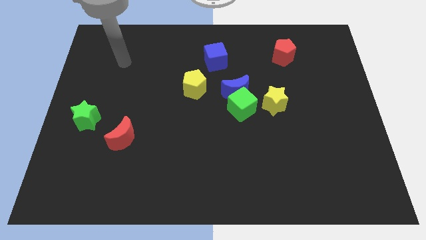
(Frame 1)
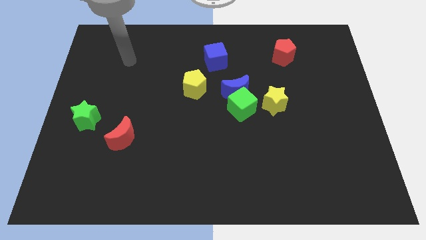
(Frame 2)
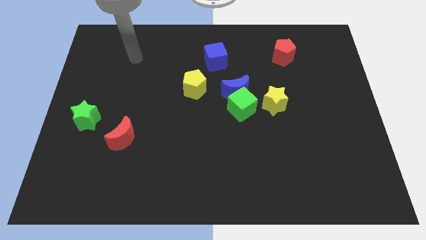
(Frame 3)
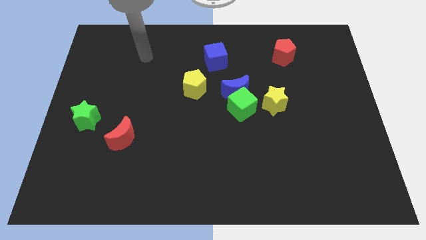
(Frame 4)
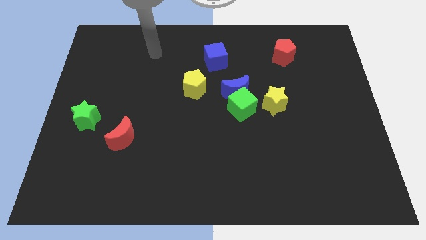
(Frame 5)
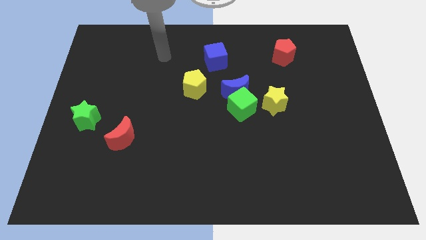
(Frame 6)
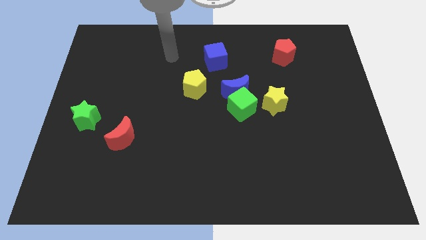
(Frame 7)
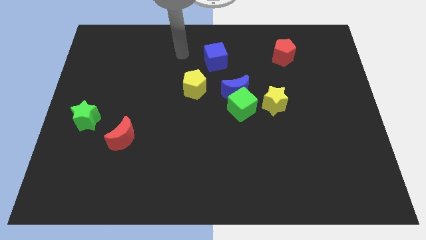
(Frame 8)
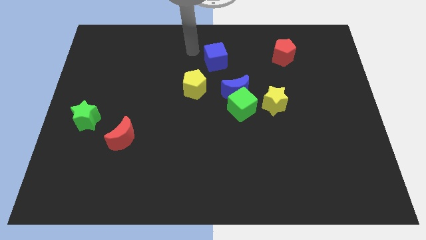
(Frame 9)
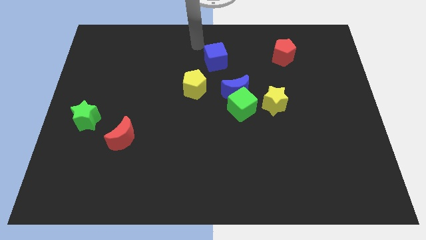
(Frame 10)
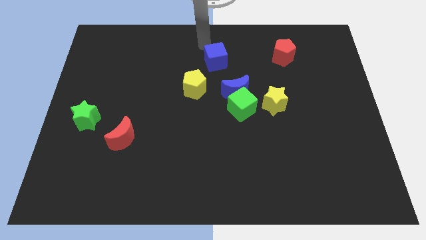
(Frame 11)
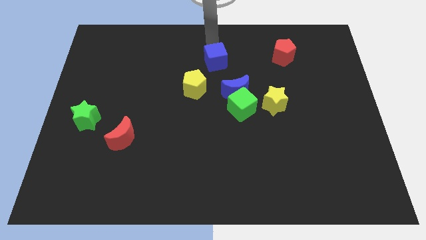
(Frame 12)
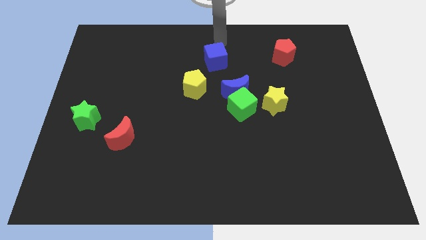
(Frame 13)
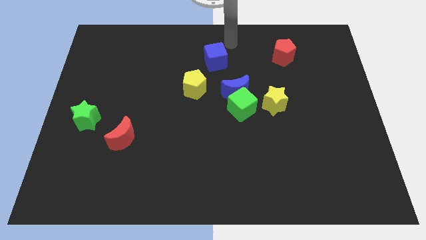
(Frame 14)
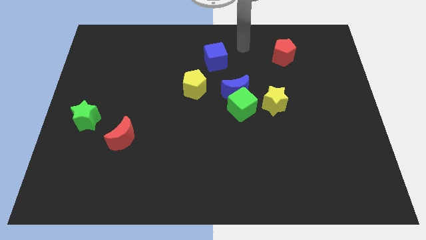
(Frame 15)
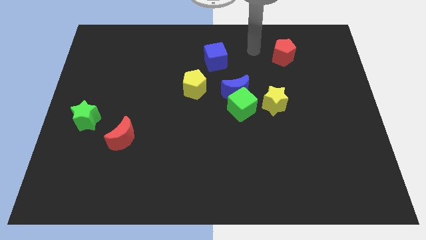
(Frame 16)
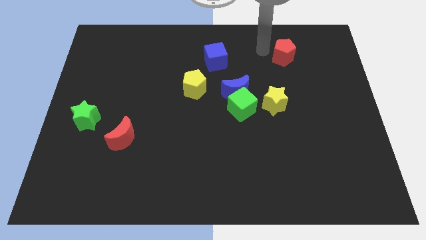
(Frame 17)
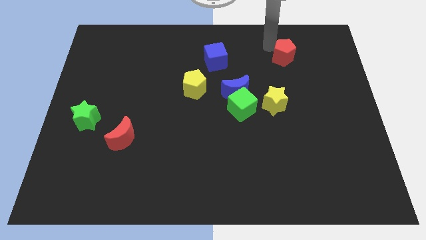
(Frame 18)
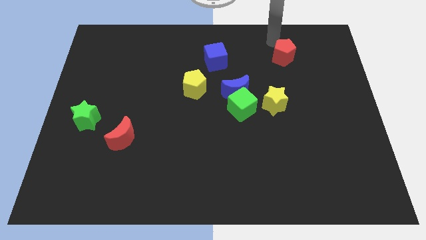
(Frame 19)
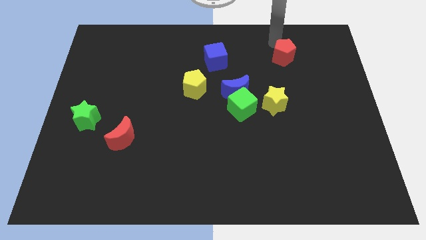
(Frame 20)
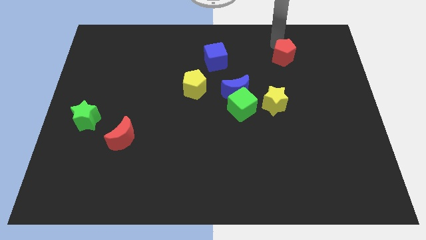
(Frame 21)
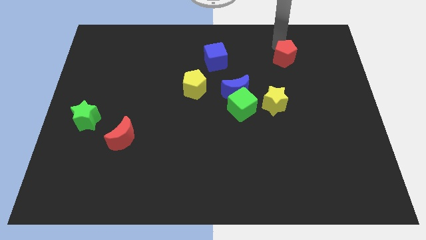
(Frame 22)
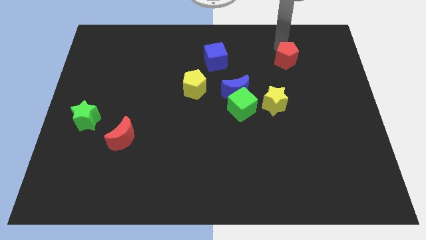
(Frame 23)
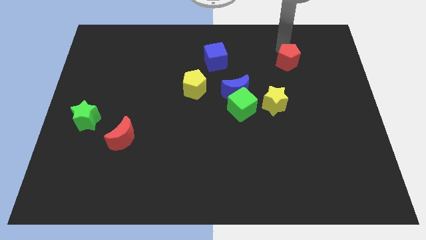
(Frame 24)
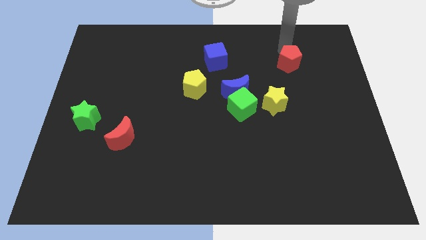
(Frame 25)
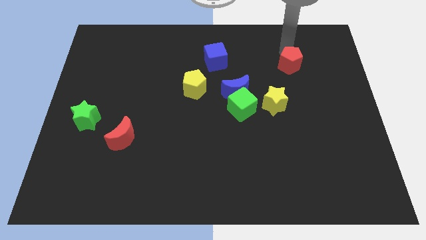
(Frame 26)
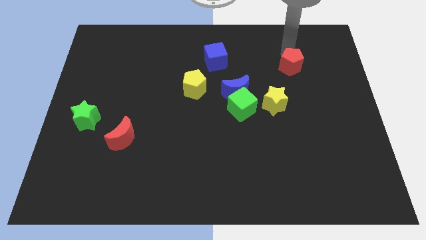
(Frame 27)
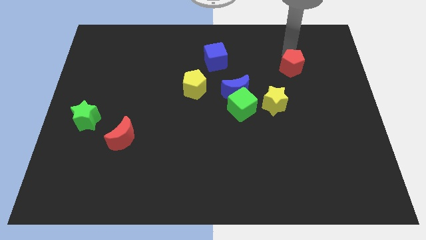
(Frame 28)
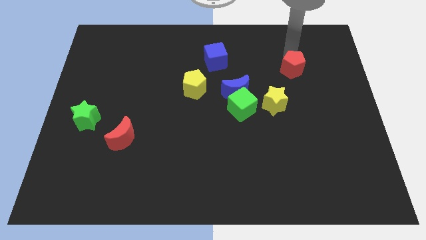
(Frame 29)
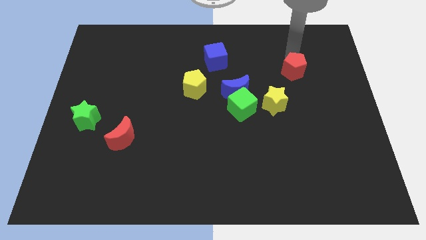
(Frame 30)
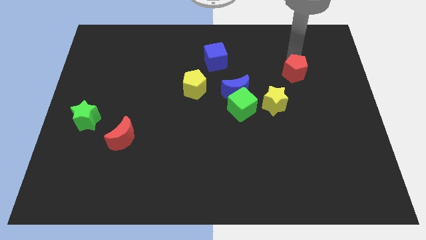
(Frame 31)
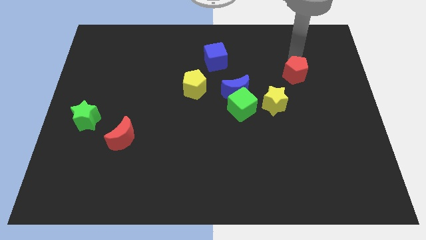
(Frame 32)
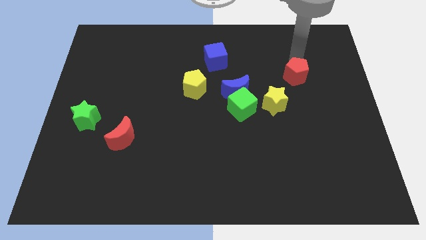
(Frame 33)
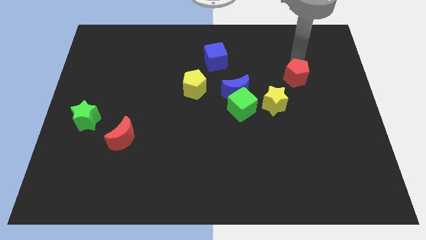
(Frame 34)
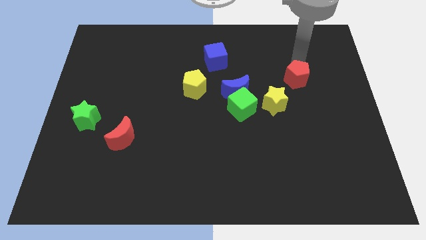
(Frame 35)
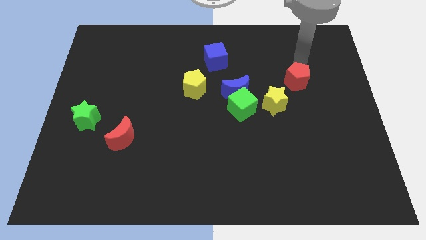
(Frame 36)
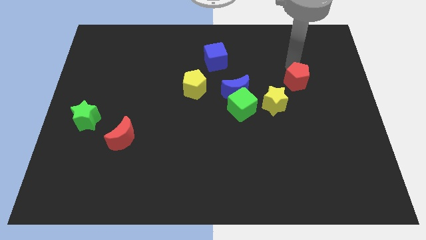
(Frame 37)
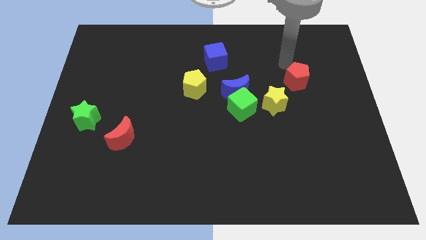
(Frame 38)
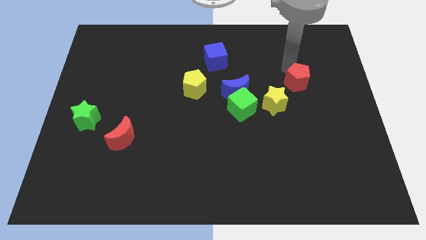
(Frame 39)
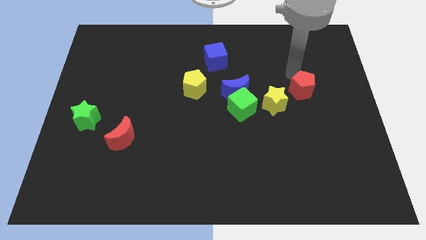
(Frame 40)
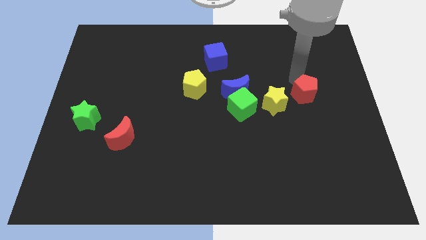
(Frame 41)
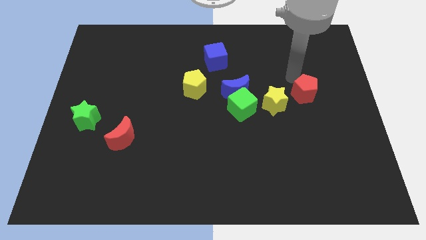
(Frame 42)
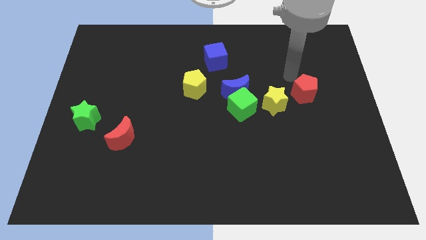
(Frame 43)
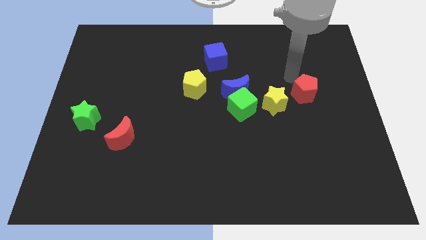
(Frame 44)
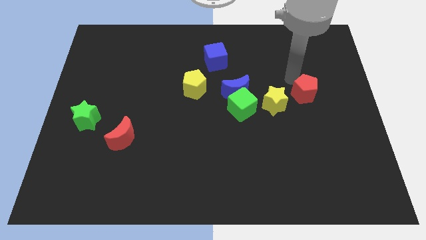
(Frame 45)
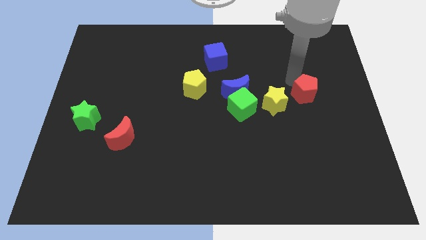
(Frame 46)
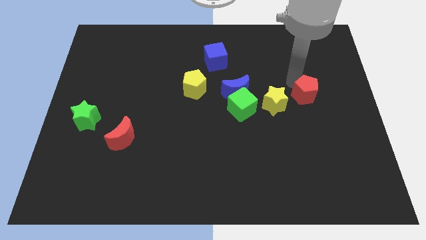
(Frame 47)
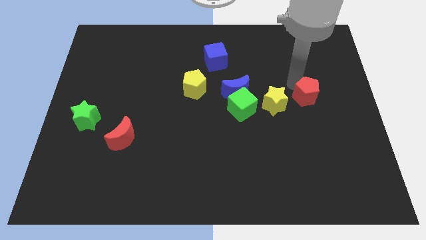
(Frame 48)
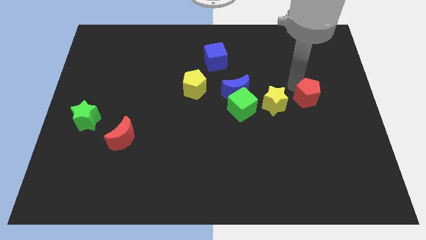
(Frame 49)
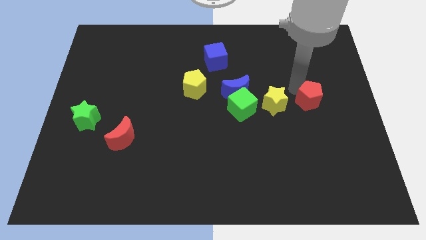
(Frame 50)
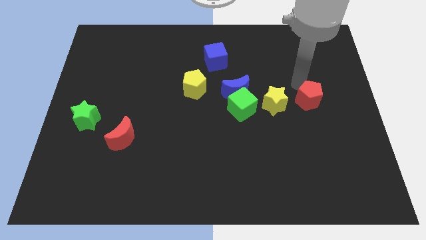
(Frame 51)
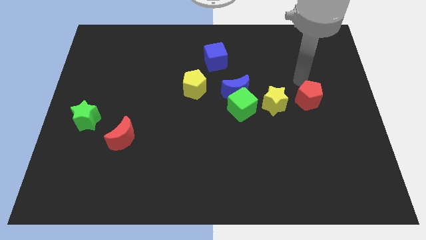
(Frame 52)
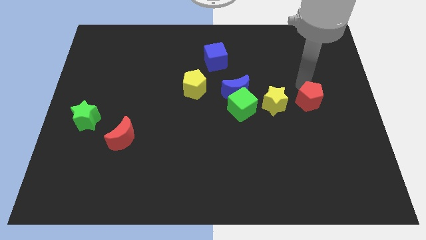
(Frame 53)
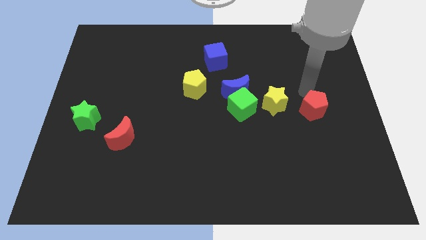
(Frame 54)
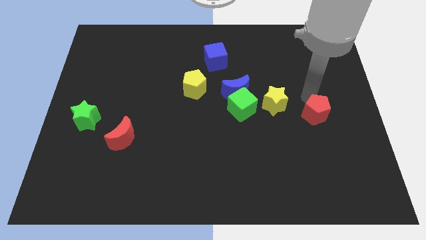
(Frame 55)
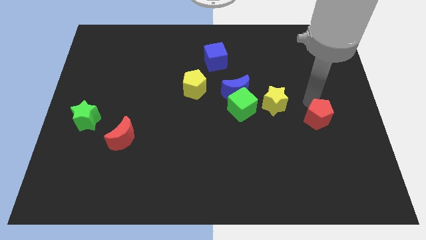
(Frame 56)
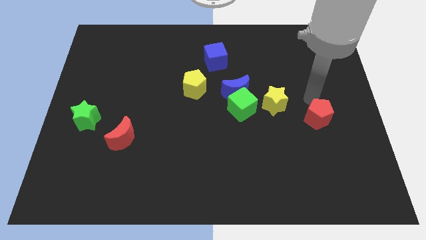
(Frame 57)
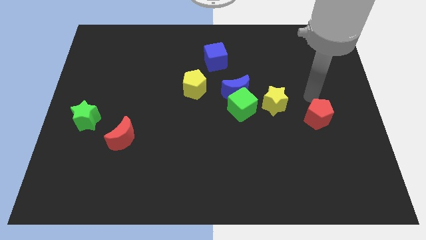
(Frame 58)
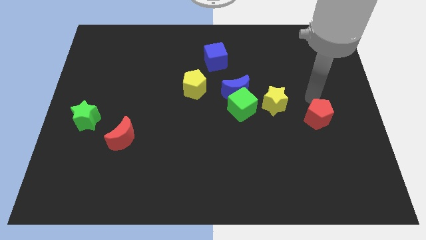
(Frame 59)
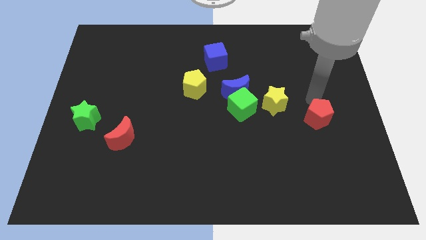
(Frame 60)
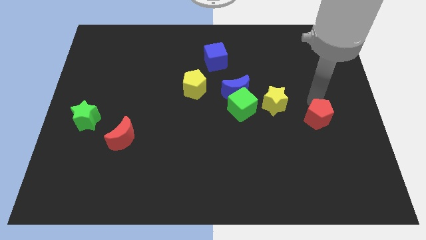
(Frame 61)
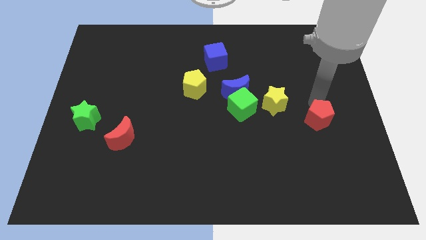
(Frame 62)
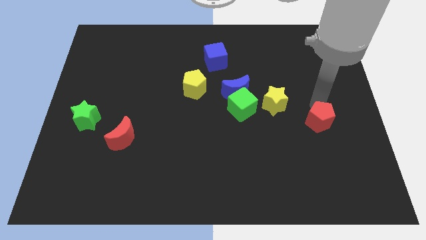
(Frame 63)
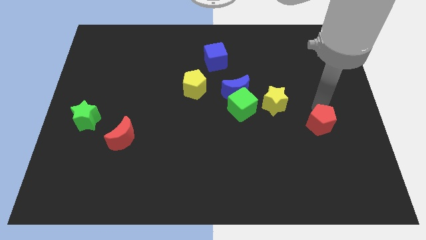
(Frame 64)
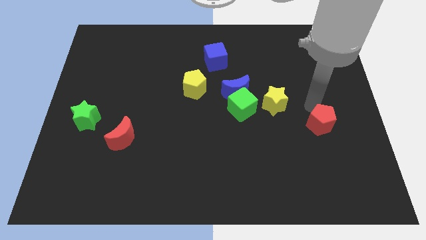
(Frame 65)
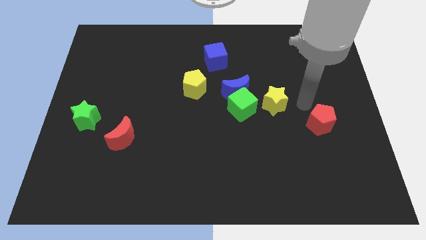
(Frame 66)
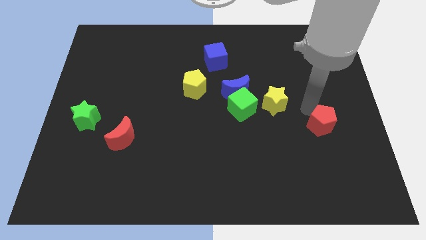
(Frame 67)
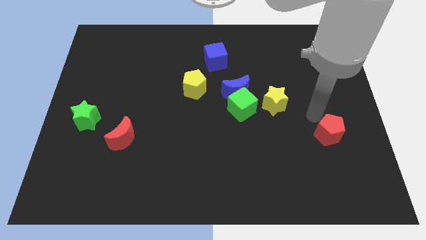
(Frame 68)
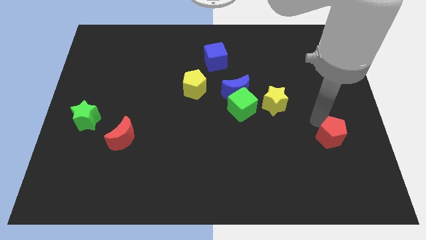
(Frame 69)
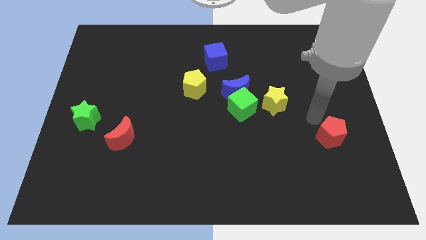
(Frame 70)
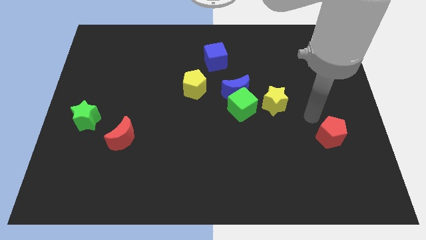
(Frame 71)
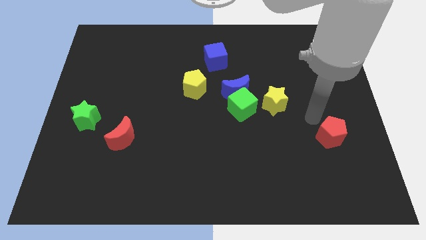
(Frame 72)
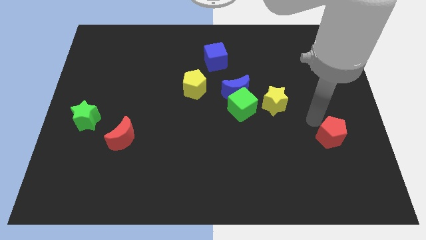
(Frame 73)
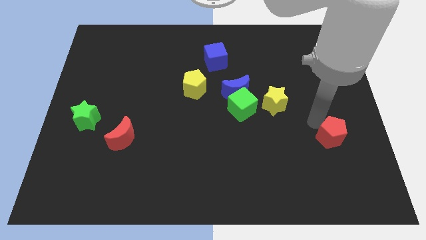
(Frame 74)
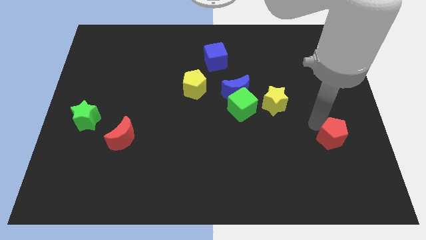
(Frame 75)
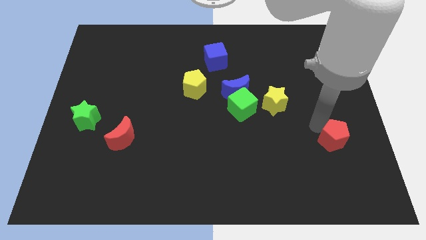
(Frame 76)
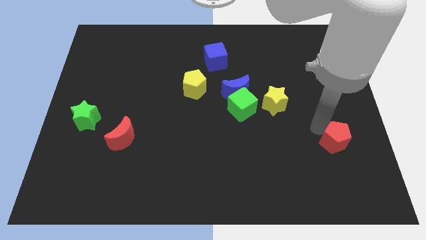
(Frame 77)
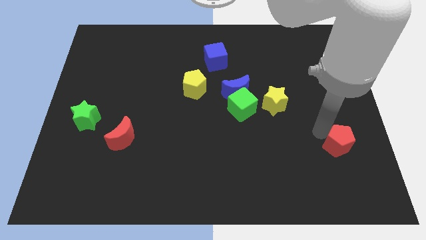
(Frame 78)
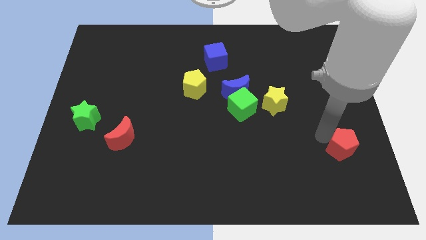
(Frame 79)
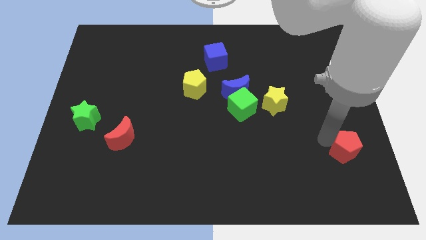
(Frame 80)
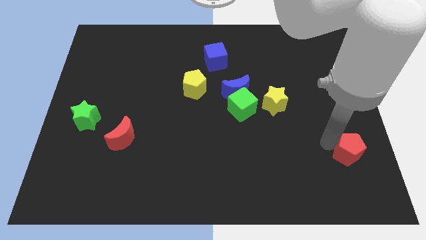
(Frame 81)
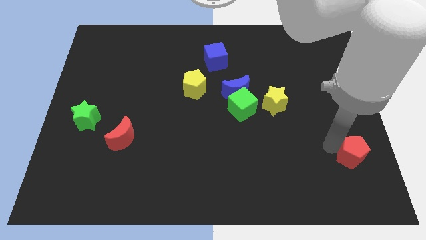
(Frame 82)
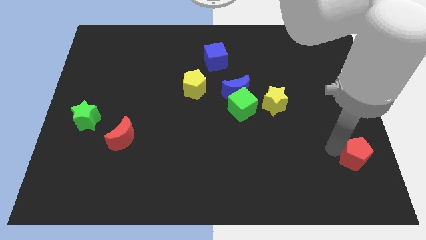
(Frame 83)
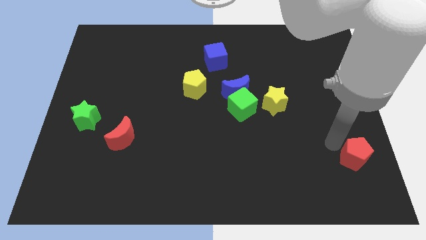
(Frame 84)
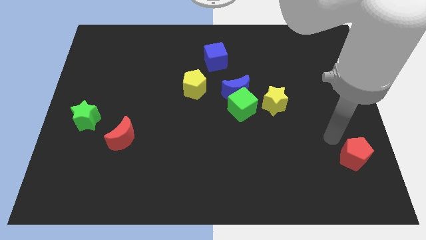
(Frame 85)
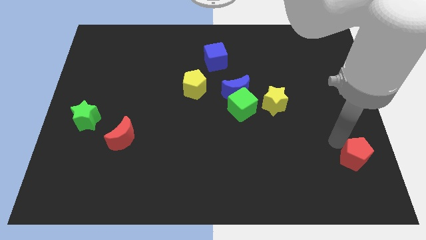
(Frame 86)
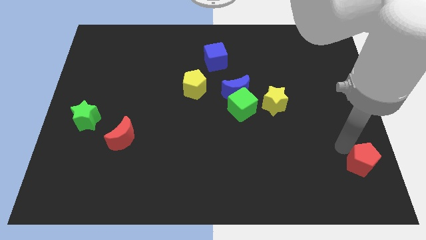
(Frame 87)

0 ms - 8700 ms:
move the red pentagon to the lower right corner
